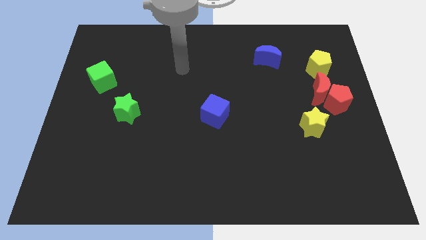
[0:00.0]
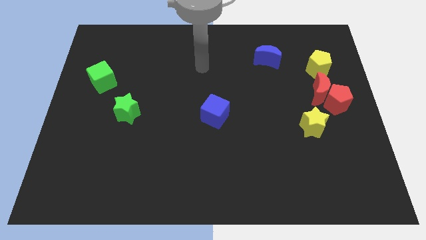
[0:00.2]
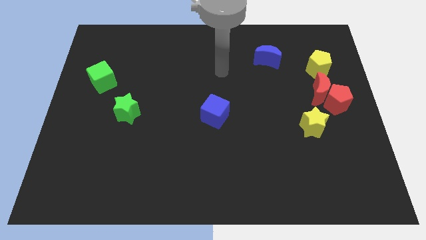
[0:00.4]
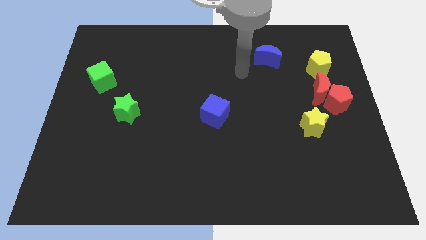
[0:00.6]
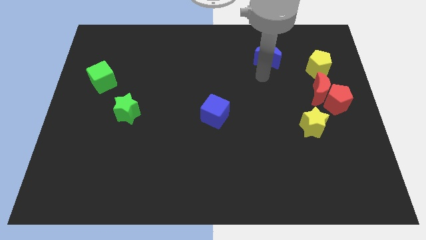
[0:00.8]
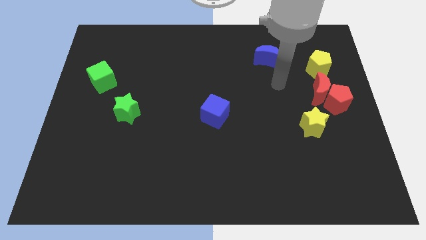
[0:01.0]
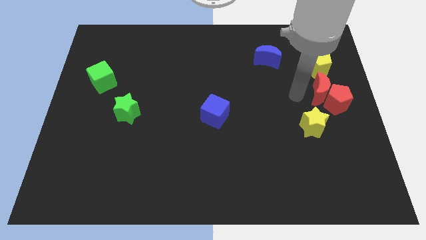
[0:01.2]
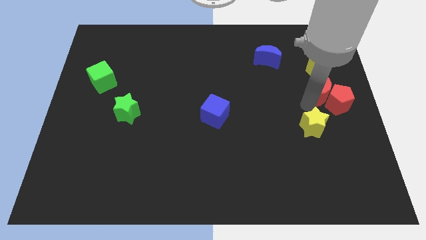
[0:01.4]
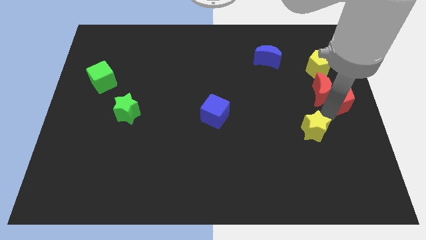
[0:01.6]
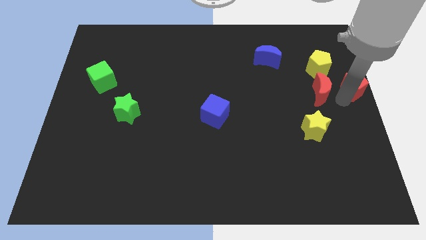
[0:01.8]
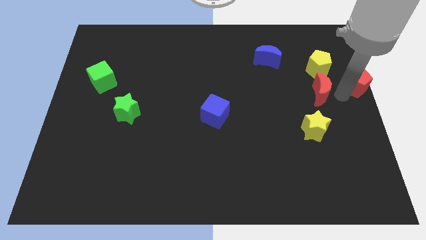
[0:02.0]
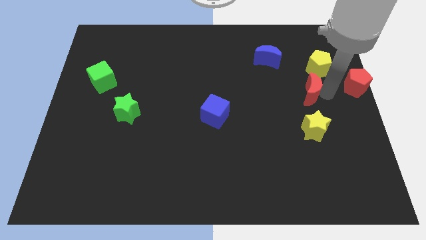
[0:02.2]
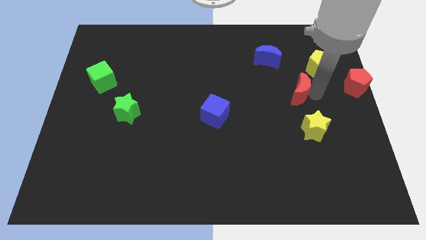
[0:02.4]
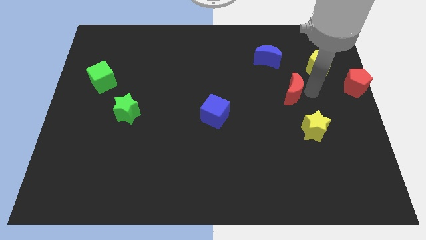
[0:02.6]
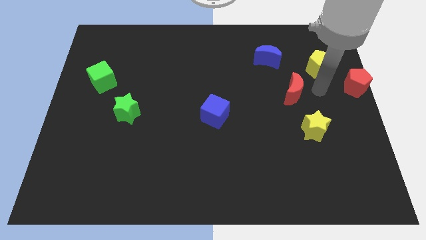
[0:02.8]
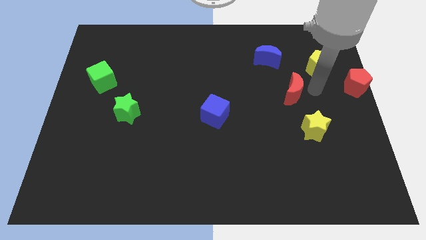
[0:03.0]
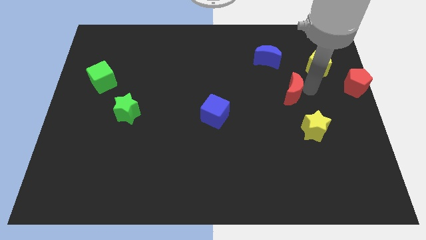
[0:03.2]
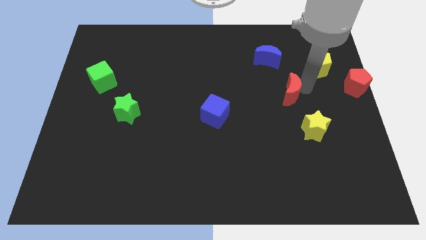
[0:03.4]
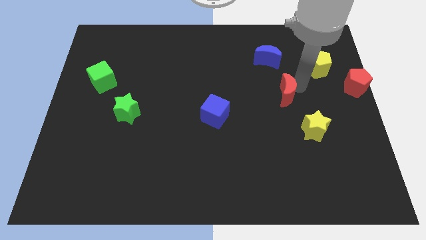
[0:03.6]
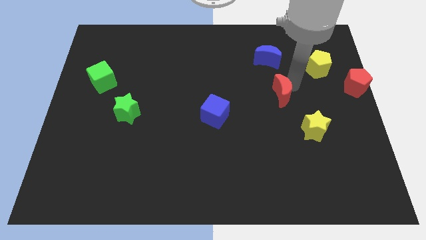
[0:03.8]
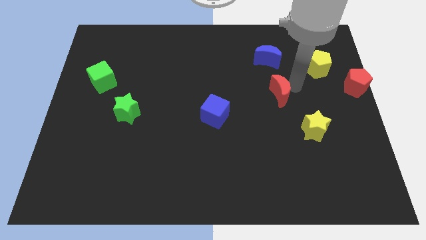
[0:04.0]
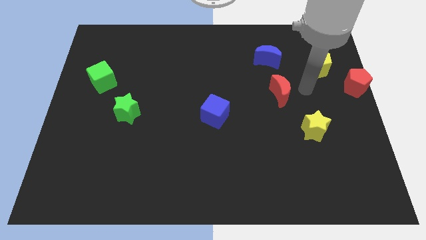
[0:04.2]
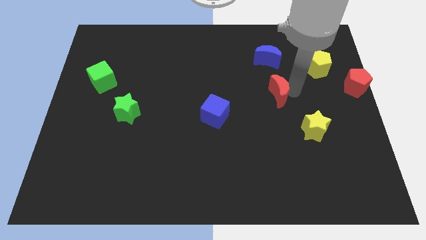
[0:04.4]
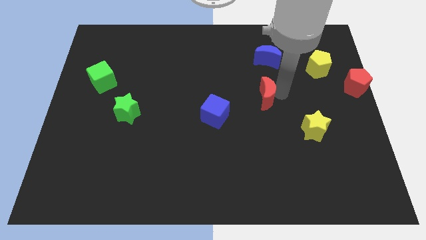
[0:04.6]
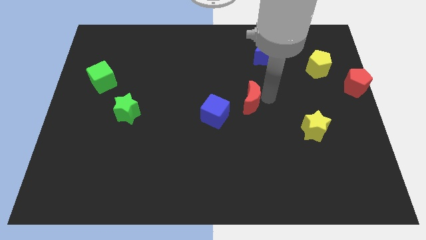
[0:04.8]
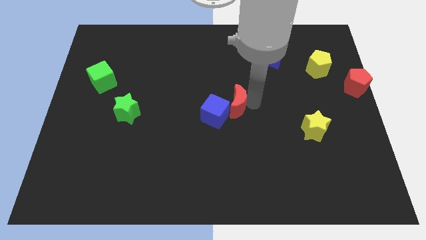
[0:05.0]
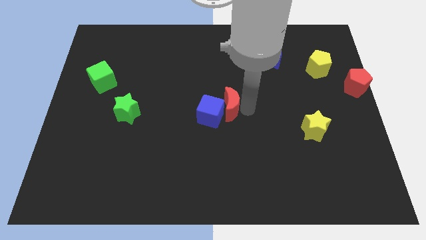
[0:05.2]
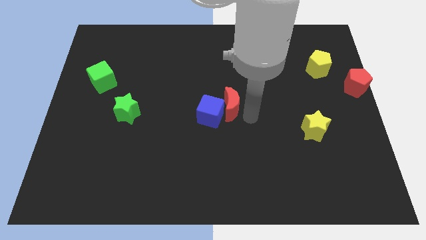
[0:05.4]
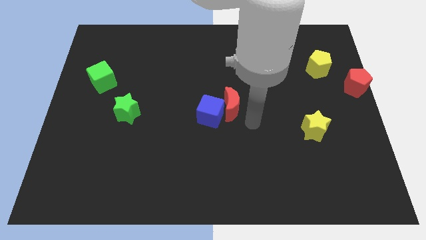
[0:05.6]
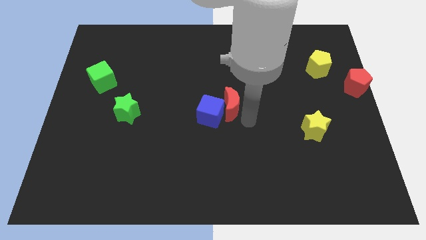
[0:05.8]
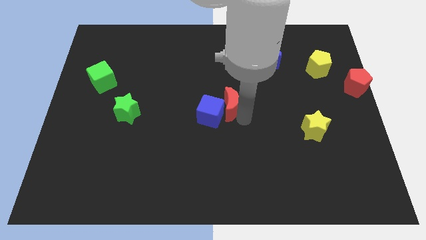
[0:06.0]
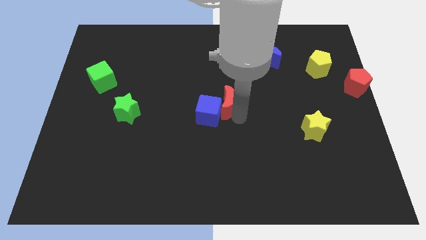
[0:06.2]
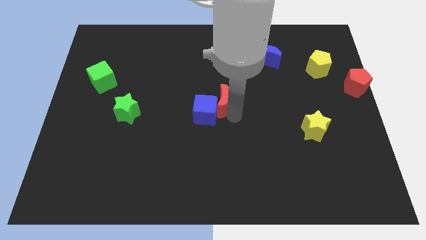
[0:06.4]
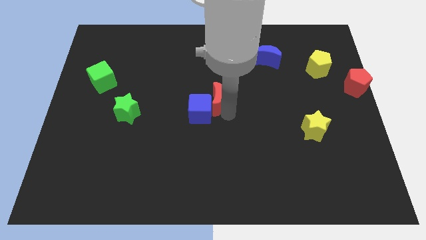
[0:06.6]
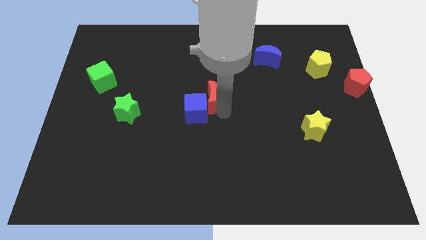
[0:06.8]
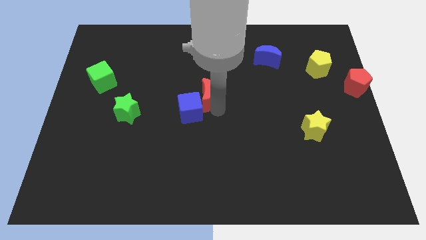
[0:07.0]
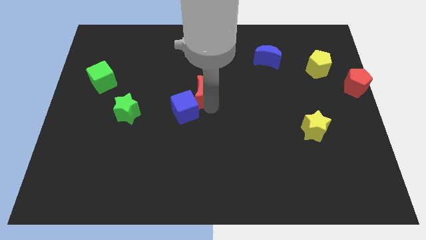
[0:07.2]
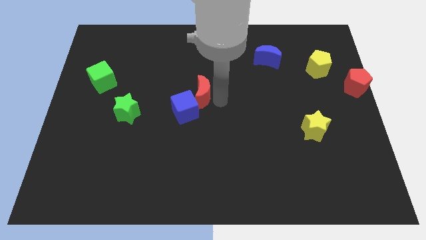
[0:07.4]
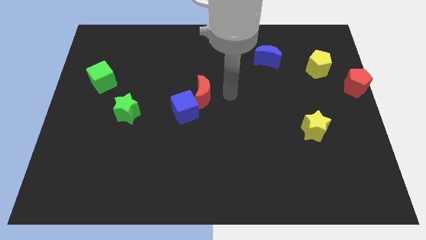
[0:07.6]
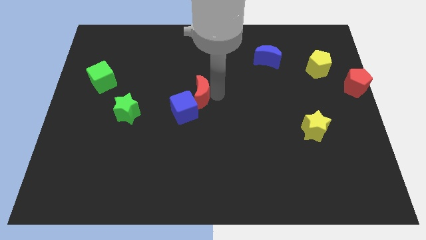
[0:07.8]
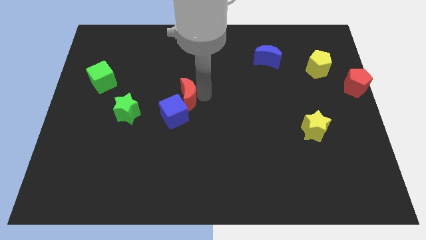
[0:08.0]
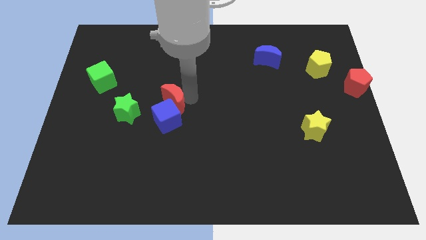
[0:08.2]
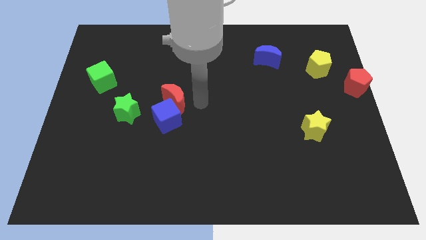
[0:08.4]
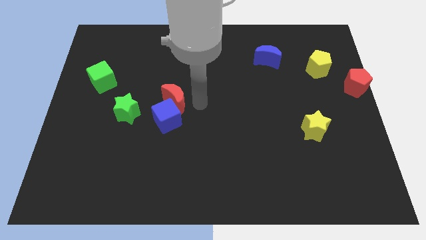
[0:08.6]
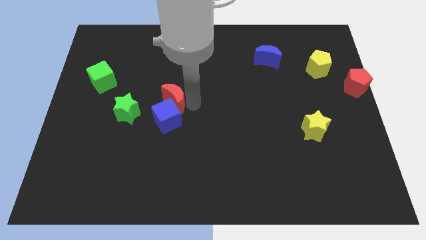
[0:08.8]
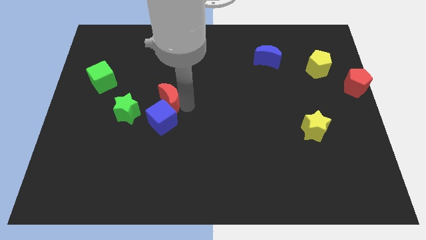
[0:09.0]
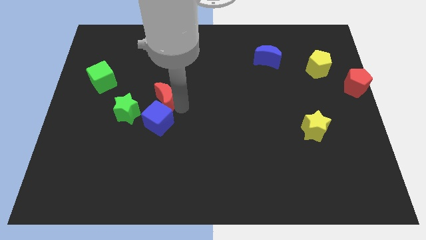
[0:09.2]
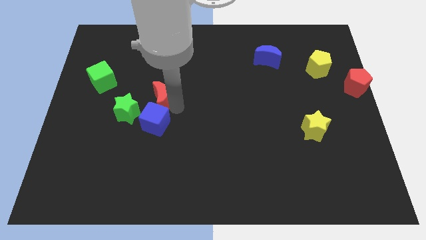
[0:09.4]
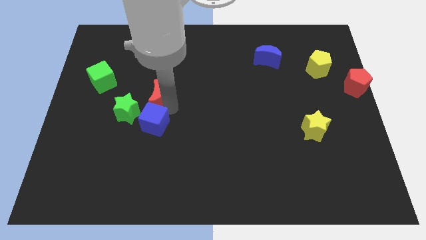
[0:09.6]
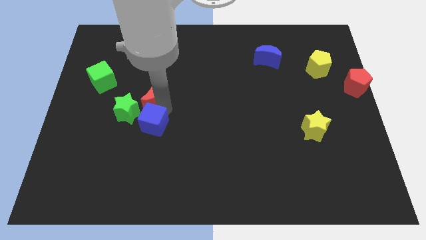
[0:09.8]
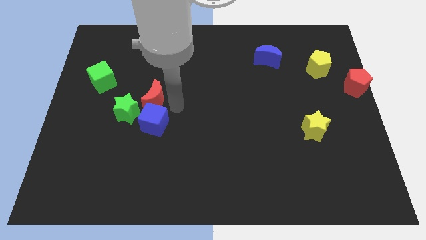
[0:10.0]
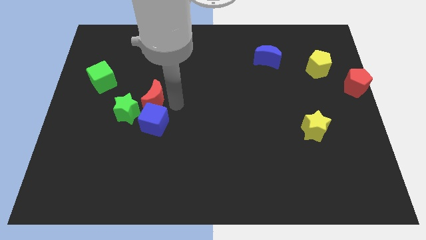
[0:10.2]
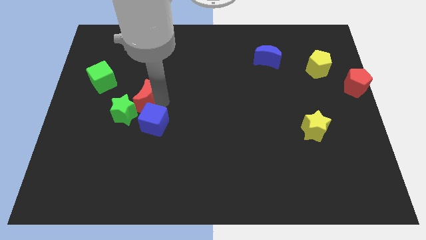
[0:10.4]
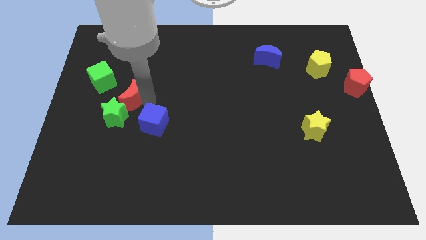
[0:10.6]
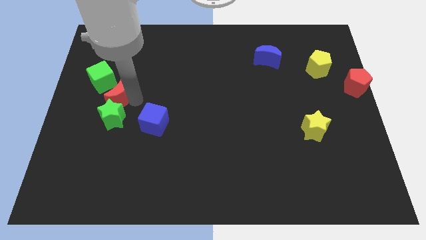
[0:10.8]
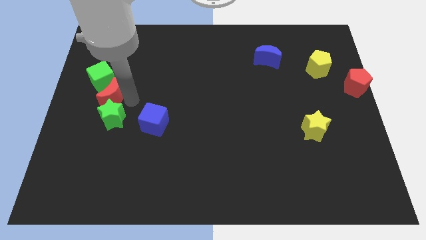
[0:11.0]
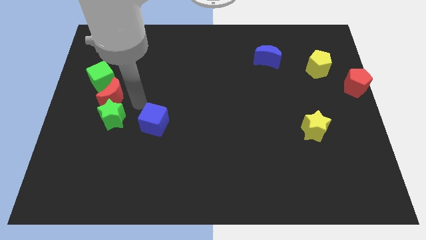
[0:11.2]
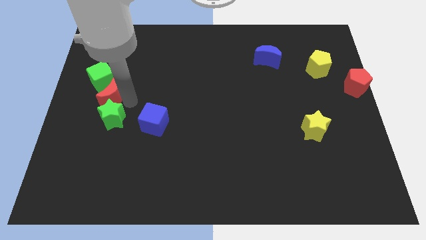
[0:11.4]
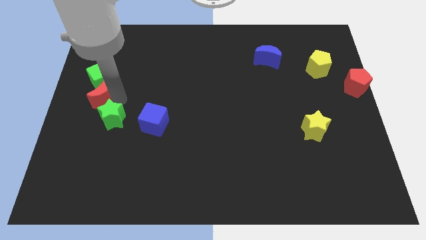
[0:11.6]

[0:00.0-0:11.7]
put the red moon to the left side

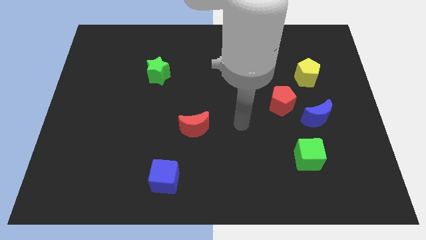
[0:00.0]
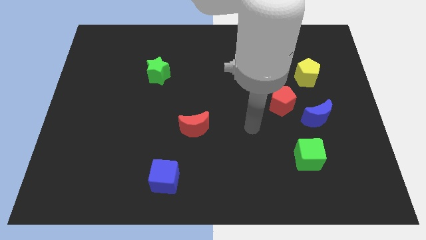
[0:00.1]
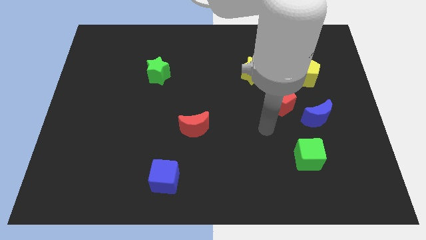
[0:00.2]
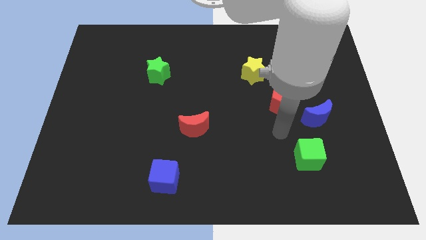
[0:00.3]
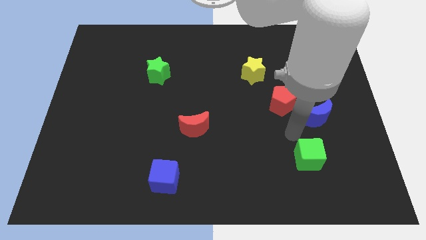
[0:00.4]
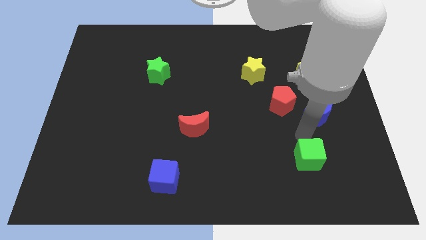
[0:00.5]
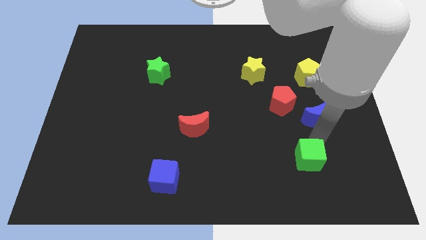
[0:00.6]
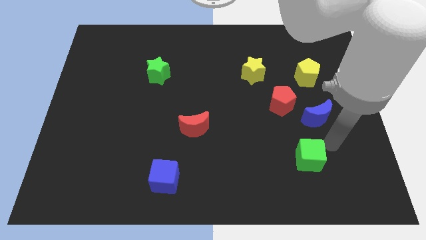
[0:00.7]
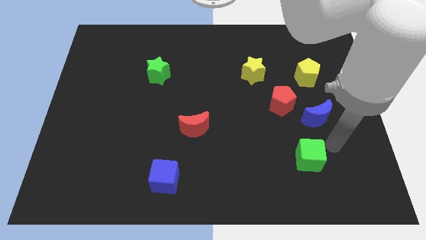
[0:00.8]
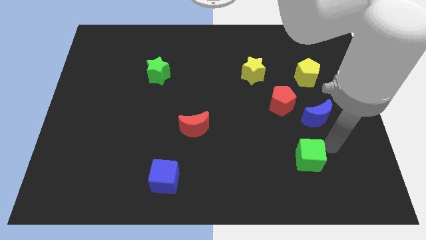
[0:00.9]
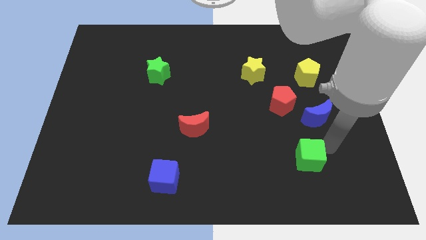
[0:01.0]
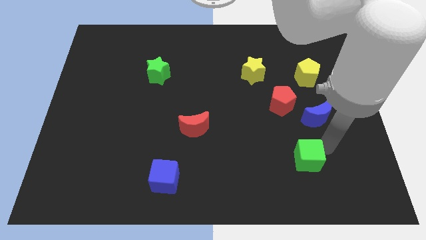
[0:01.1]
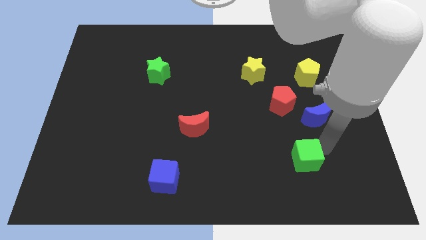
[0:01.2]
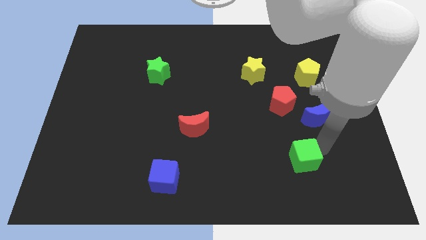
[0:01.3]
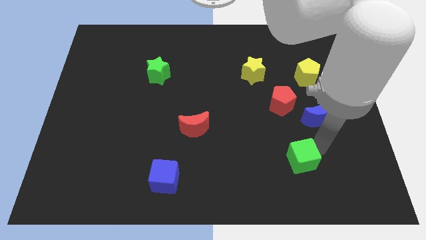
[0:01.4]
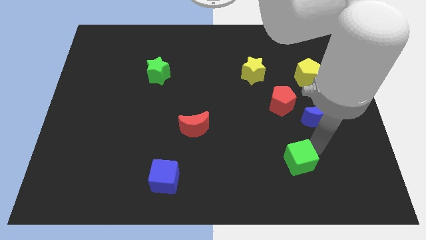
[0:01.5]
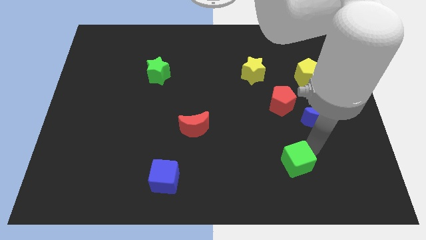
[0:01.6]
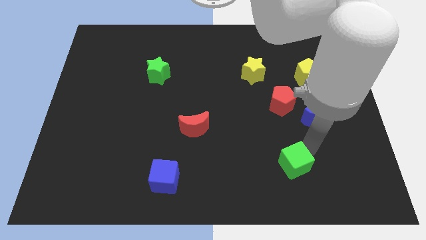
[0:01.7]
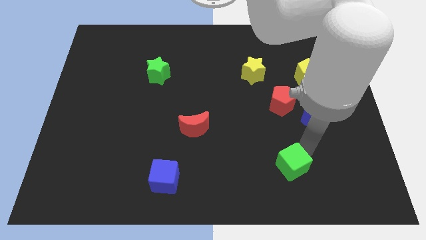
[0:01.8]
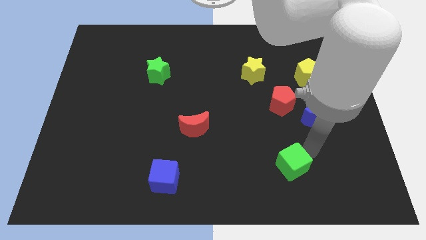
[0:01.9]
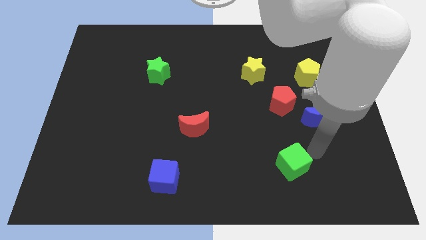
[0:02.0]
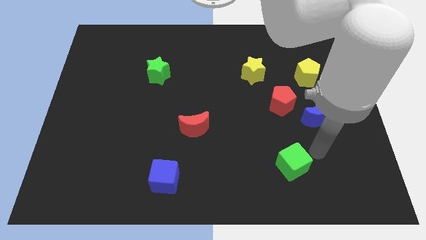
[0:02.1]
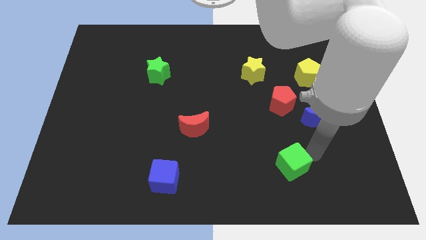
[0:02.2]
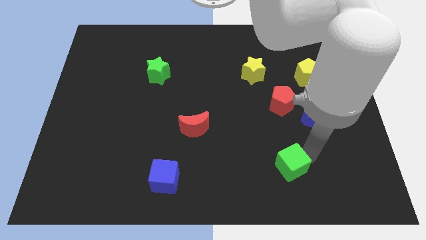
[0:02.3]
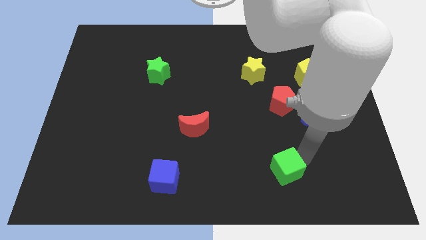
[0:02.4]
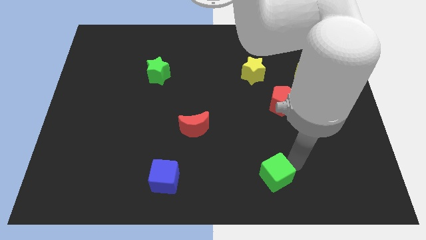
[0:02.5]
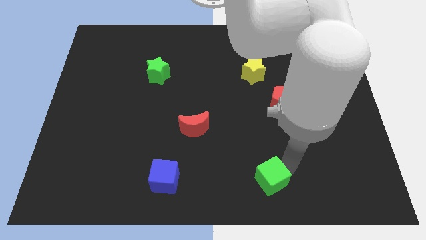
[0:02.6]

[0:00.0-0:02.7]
put the green cube to the bottom
